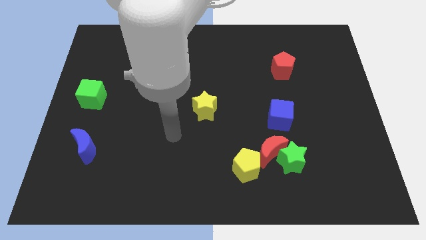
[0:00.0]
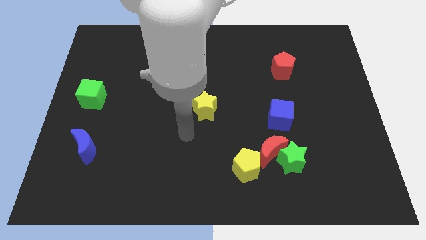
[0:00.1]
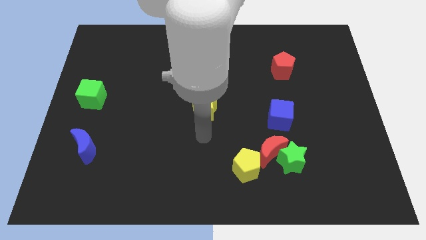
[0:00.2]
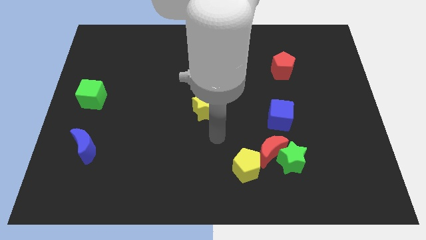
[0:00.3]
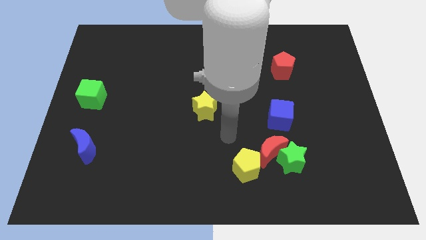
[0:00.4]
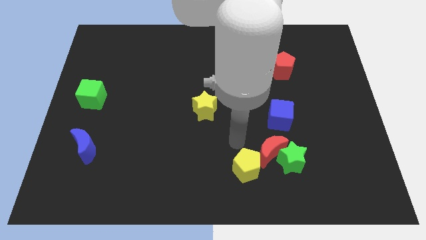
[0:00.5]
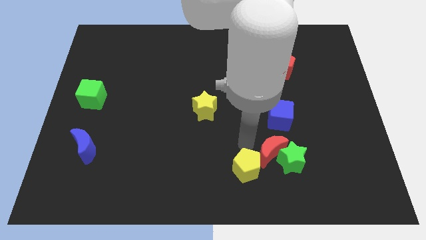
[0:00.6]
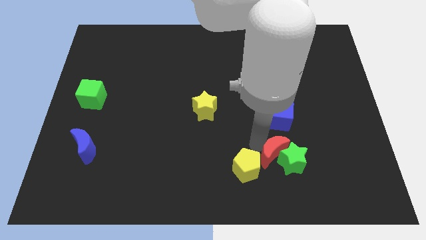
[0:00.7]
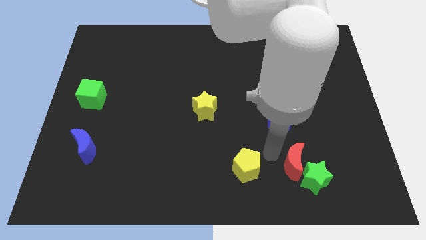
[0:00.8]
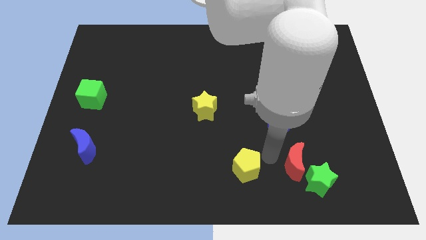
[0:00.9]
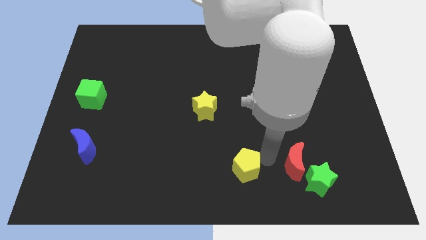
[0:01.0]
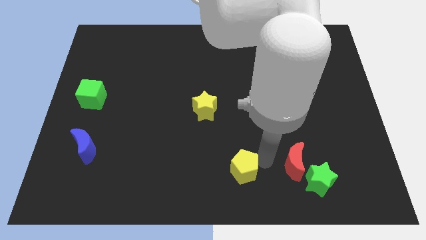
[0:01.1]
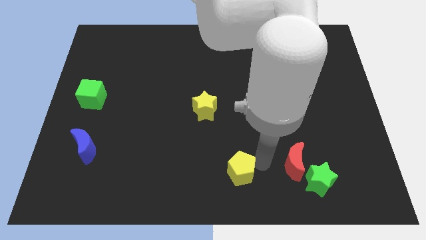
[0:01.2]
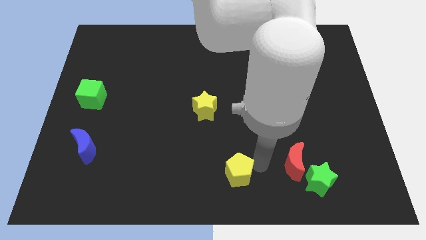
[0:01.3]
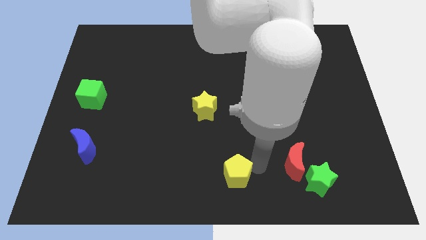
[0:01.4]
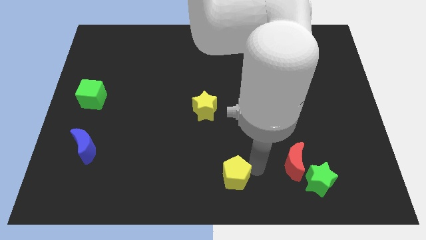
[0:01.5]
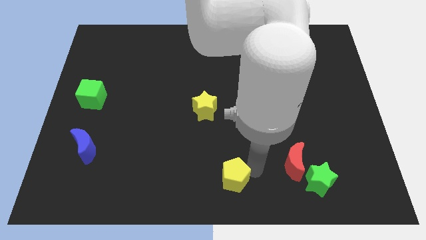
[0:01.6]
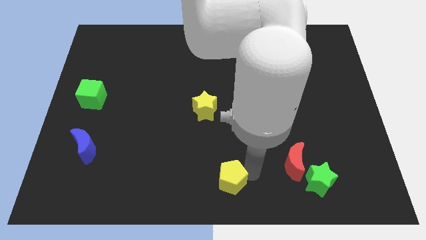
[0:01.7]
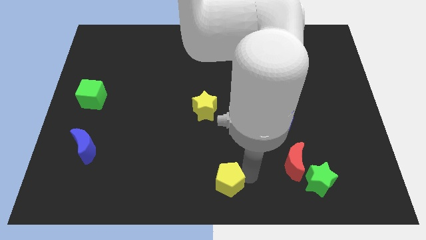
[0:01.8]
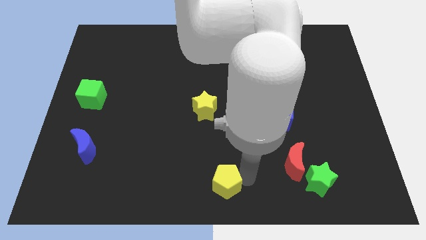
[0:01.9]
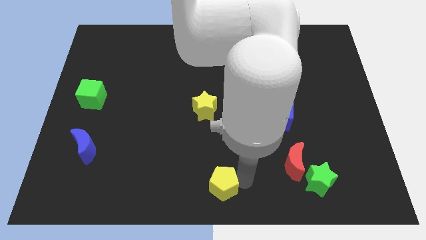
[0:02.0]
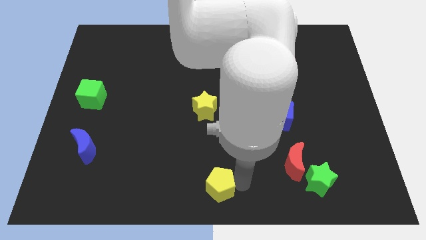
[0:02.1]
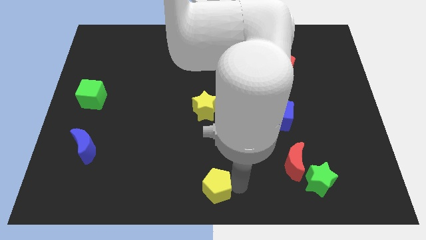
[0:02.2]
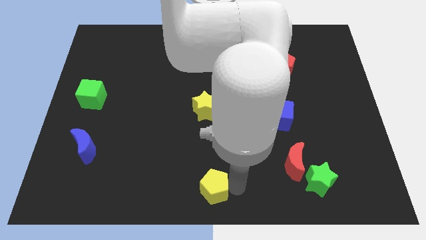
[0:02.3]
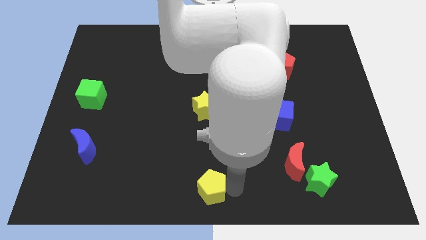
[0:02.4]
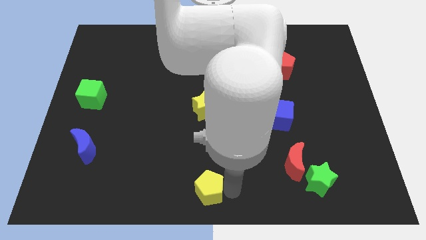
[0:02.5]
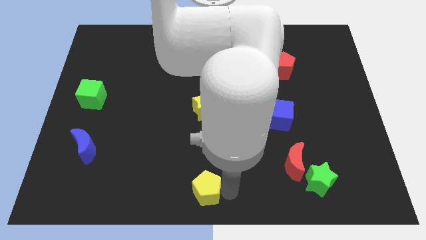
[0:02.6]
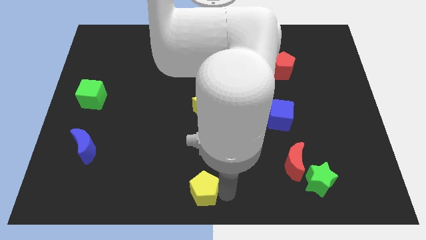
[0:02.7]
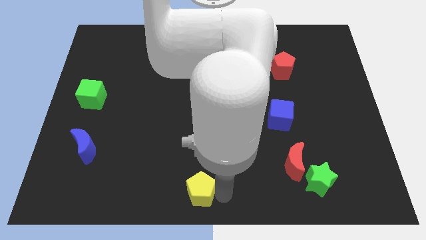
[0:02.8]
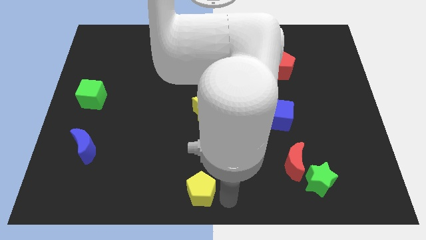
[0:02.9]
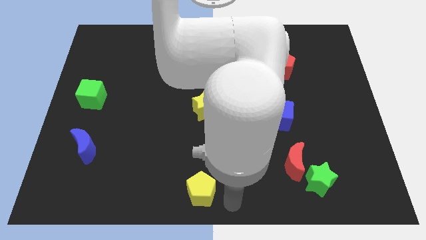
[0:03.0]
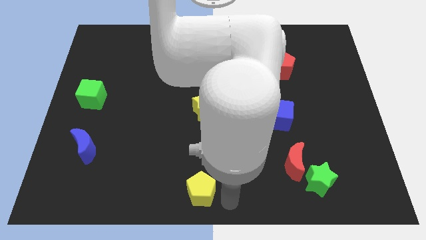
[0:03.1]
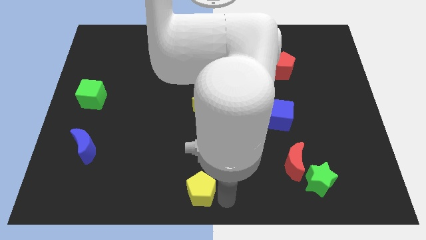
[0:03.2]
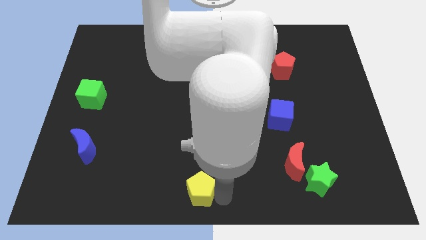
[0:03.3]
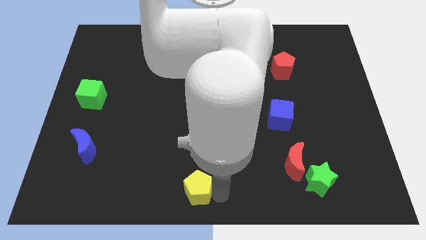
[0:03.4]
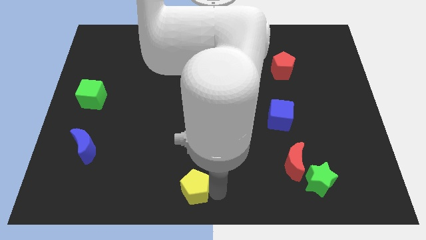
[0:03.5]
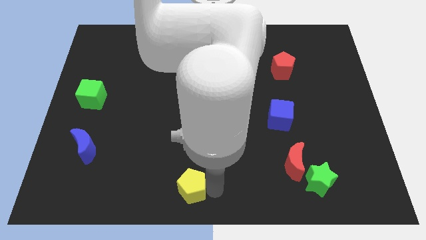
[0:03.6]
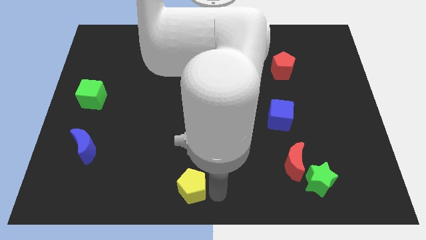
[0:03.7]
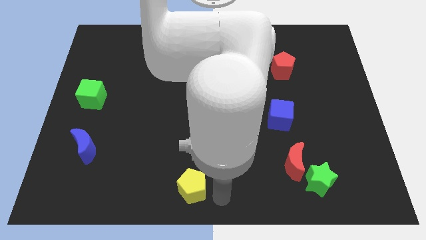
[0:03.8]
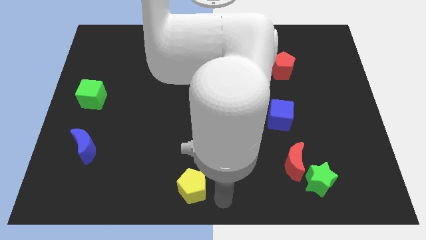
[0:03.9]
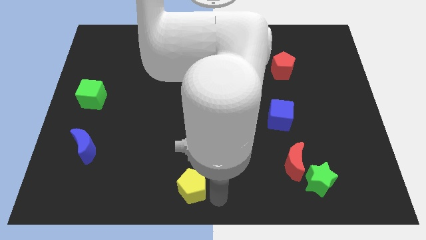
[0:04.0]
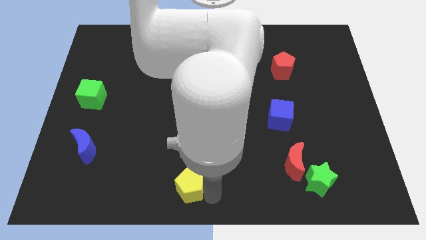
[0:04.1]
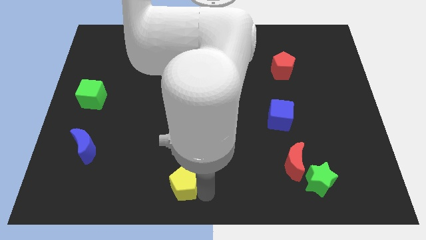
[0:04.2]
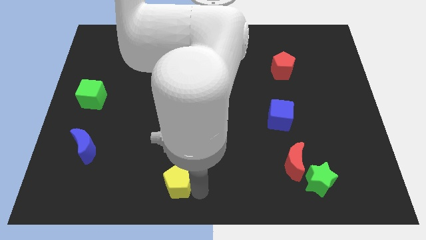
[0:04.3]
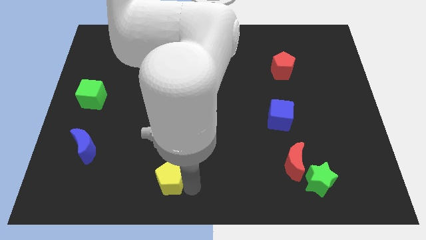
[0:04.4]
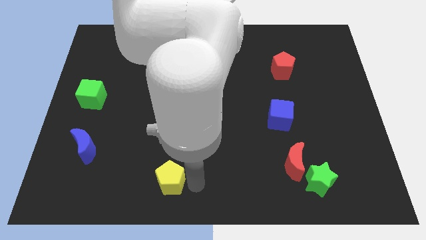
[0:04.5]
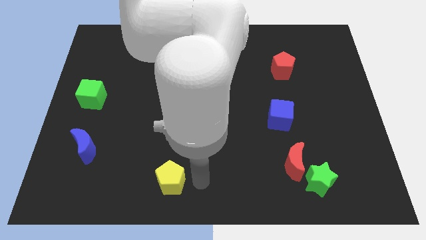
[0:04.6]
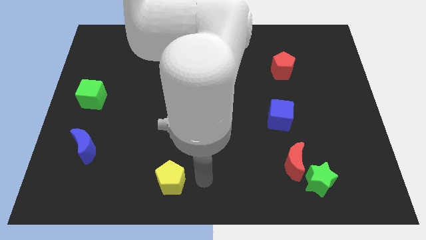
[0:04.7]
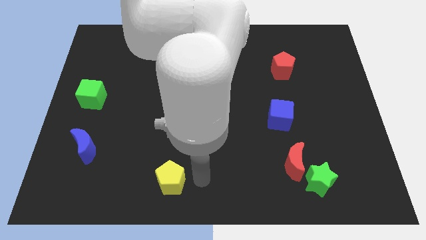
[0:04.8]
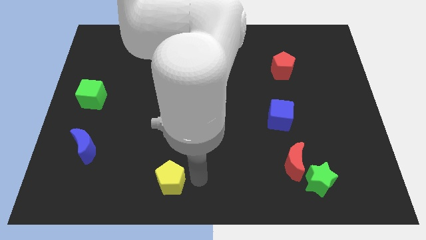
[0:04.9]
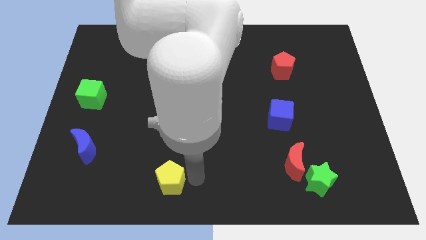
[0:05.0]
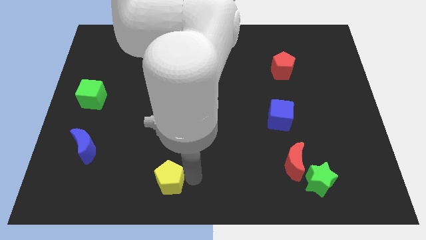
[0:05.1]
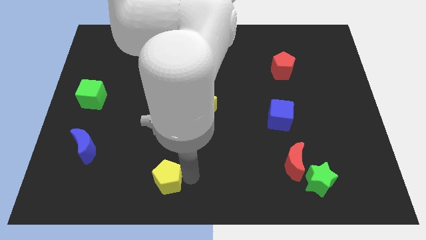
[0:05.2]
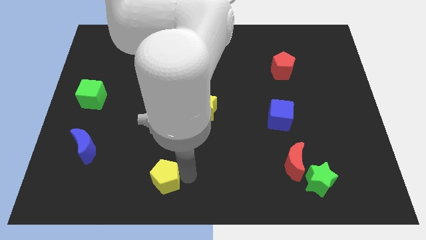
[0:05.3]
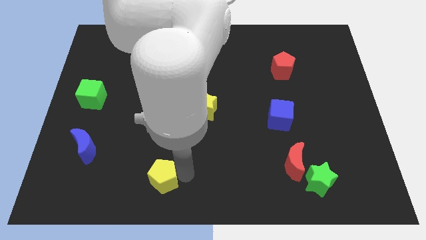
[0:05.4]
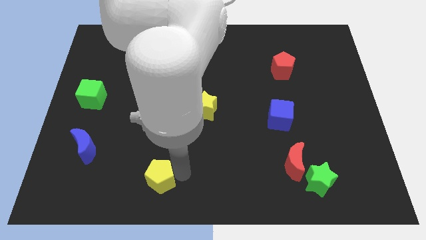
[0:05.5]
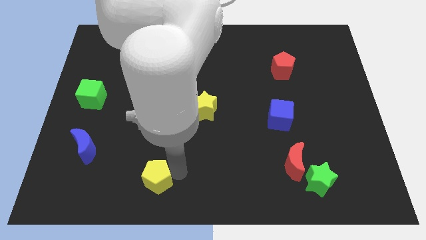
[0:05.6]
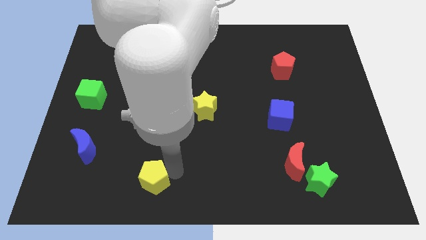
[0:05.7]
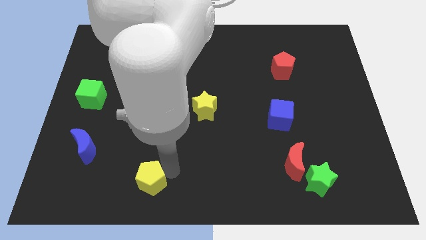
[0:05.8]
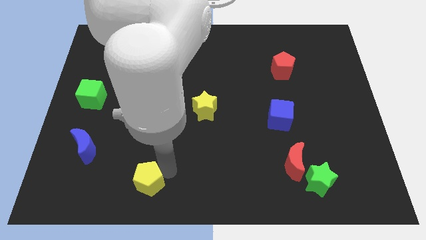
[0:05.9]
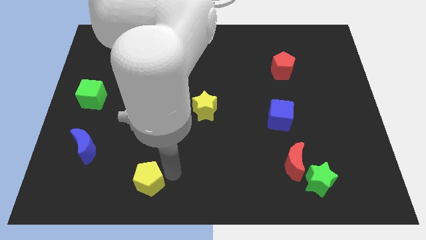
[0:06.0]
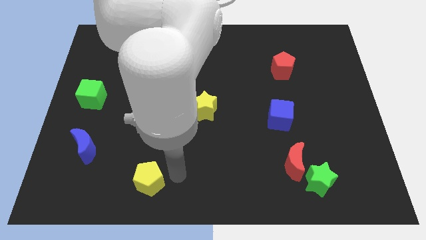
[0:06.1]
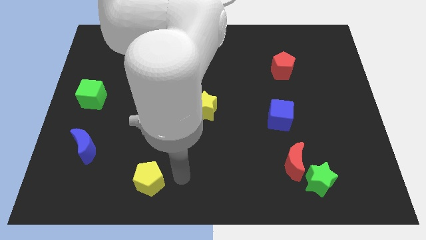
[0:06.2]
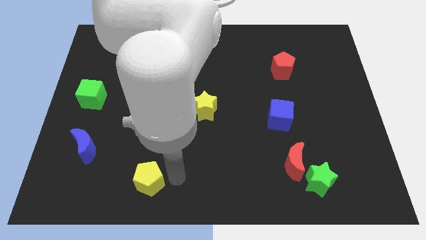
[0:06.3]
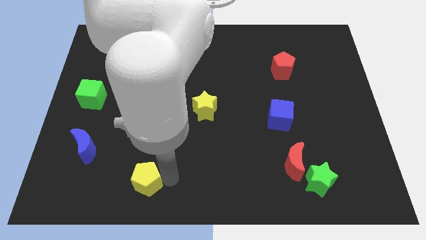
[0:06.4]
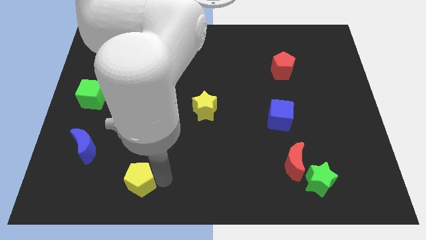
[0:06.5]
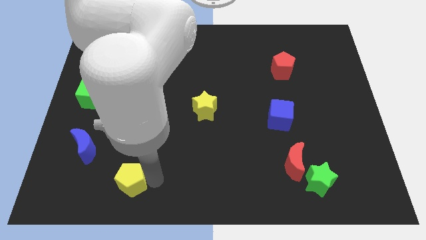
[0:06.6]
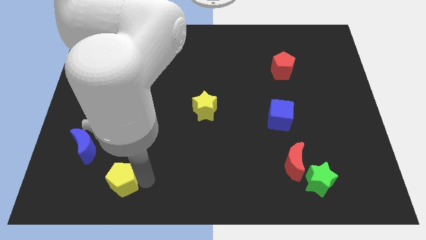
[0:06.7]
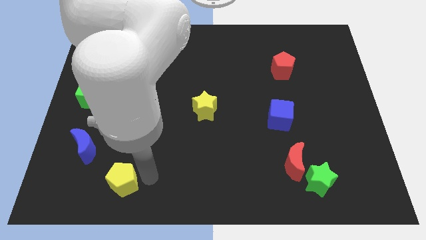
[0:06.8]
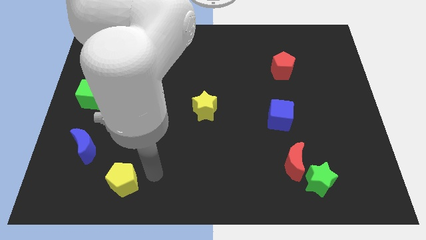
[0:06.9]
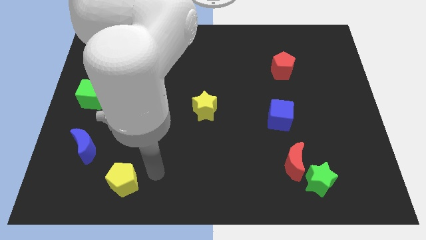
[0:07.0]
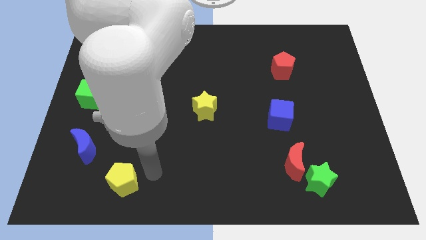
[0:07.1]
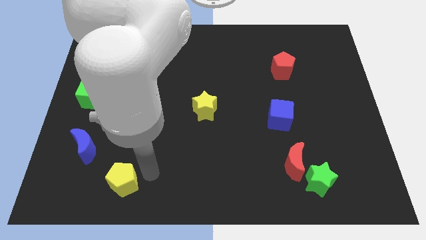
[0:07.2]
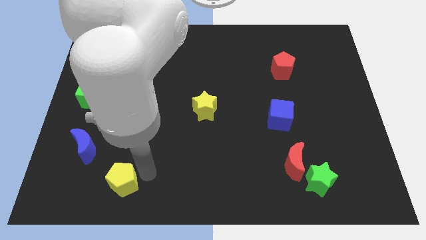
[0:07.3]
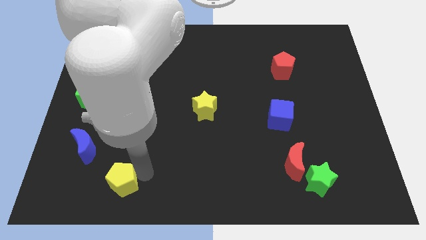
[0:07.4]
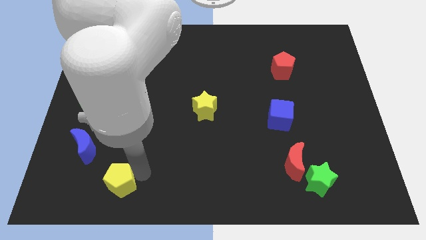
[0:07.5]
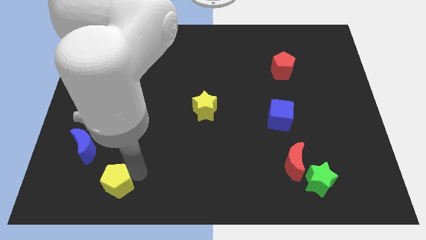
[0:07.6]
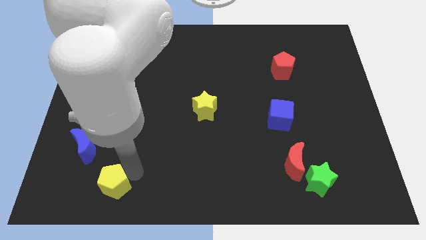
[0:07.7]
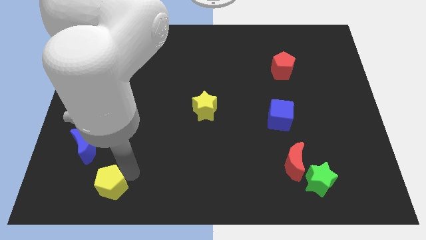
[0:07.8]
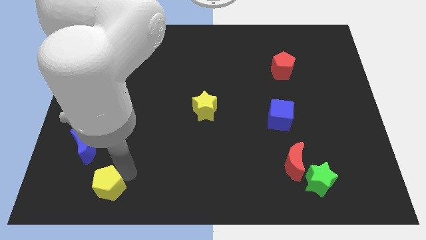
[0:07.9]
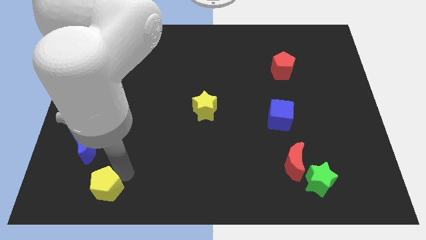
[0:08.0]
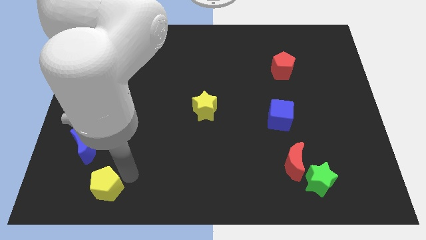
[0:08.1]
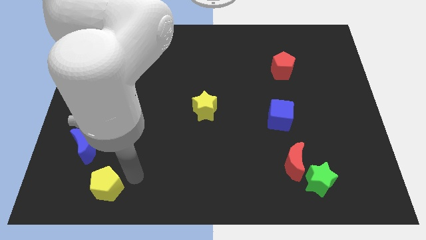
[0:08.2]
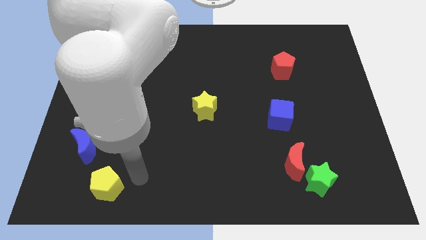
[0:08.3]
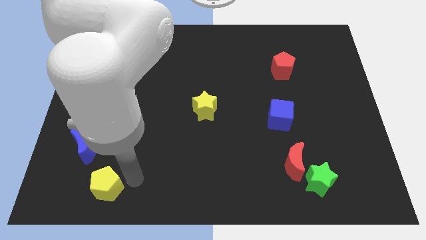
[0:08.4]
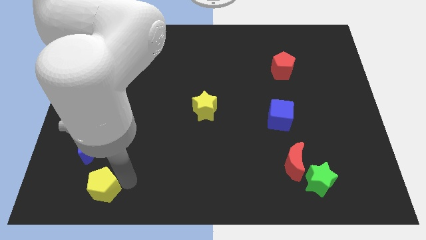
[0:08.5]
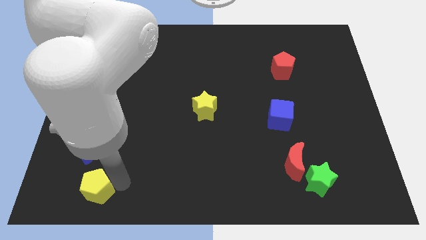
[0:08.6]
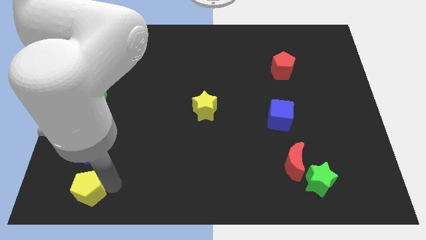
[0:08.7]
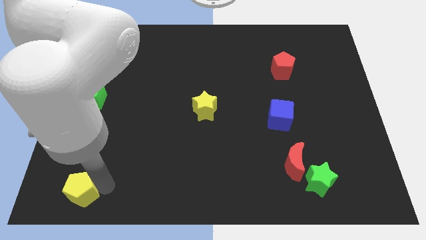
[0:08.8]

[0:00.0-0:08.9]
put the yellow pentagon to the bottom left corner
